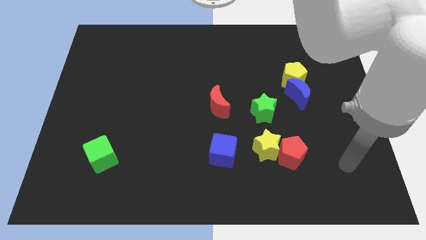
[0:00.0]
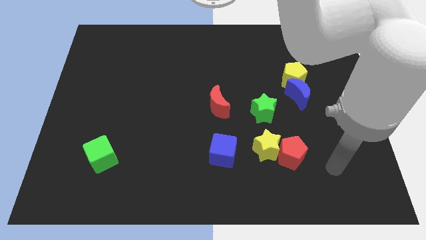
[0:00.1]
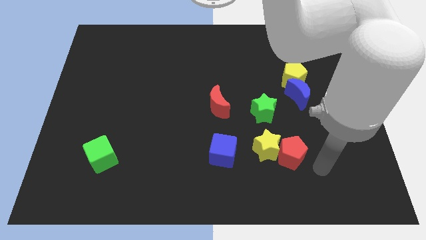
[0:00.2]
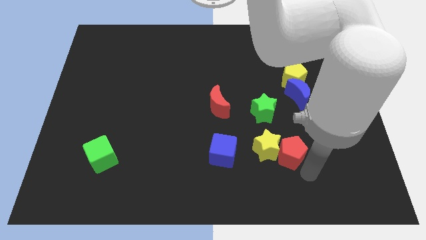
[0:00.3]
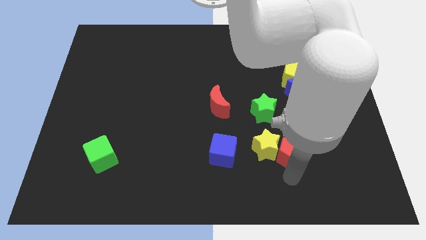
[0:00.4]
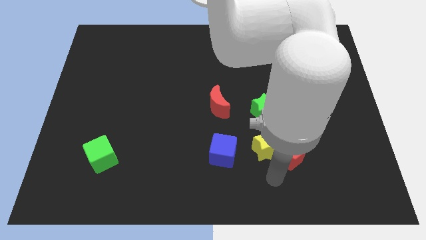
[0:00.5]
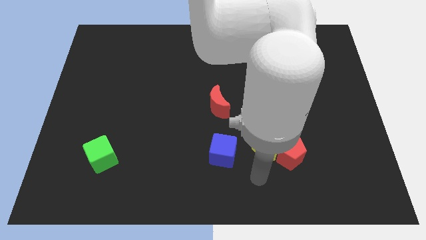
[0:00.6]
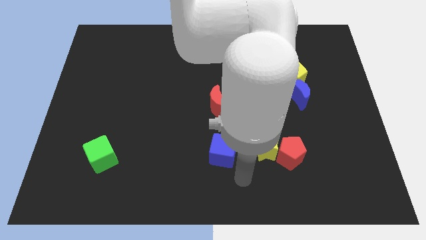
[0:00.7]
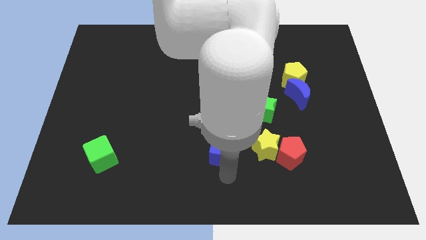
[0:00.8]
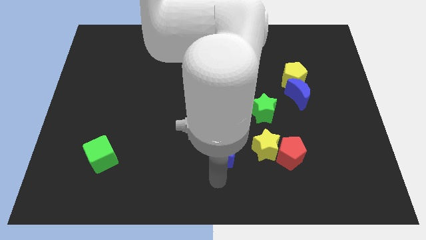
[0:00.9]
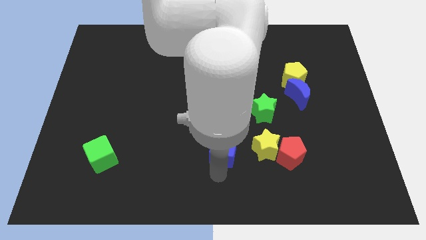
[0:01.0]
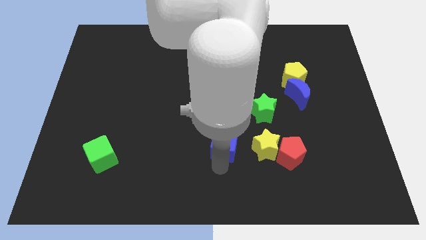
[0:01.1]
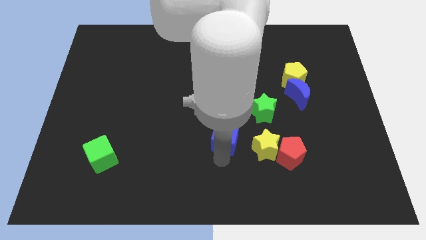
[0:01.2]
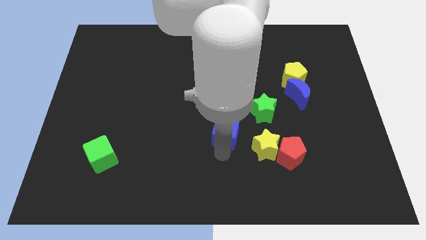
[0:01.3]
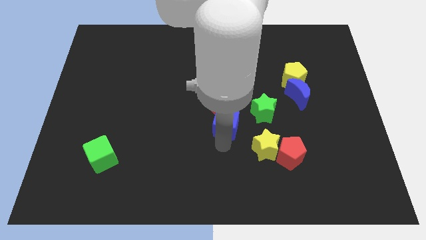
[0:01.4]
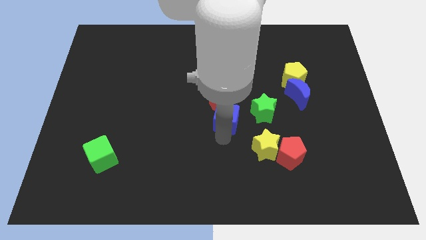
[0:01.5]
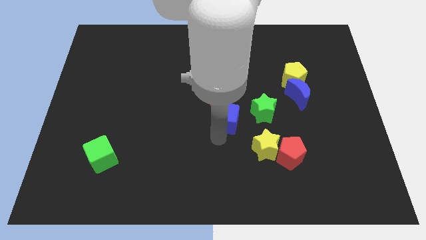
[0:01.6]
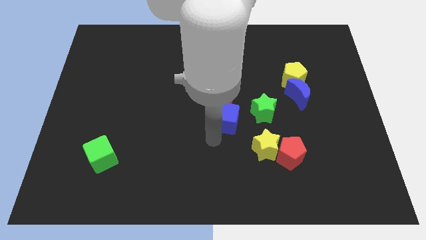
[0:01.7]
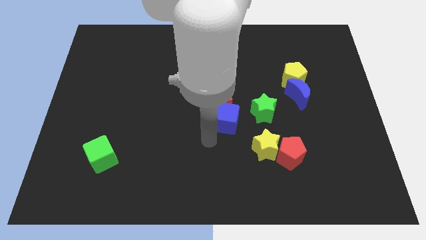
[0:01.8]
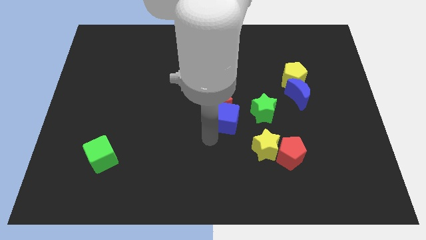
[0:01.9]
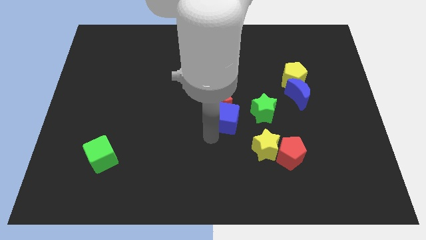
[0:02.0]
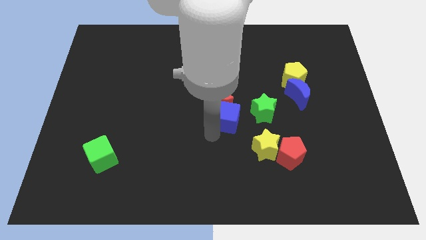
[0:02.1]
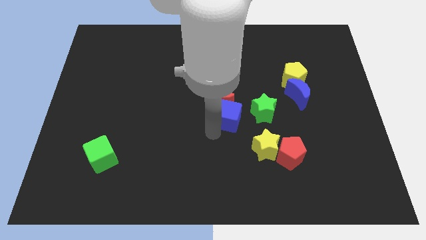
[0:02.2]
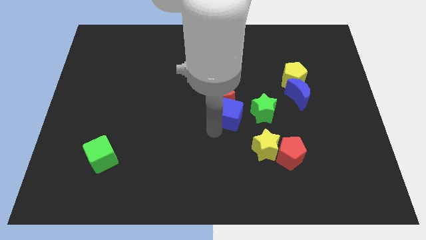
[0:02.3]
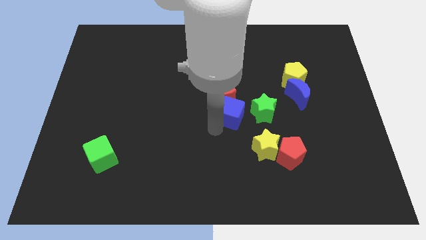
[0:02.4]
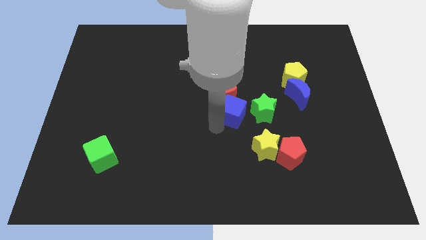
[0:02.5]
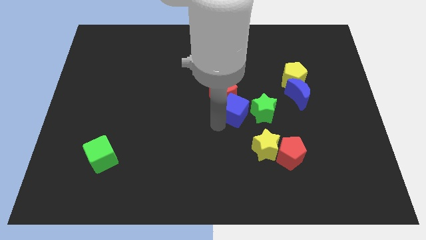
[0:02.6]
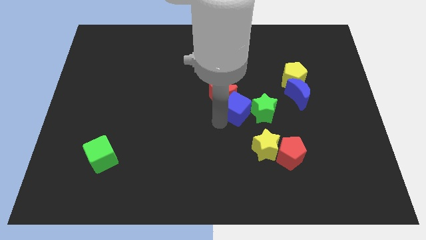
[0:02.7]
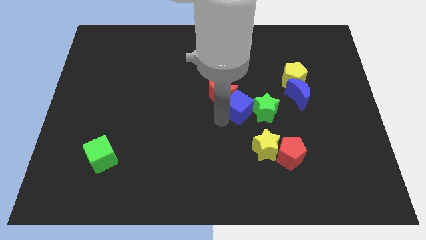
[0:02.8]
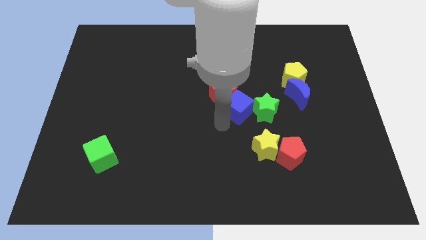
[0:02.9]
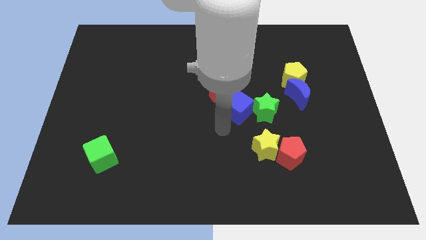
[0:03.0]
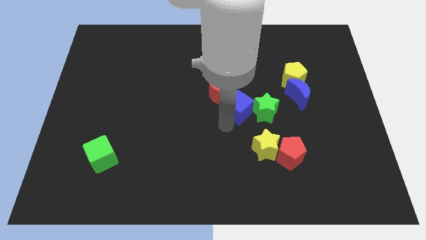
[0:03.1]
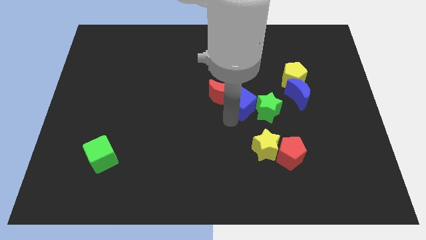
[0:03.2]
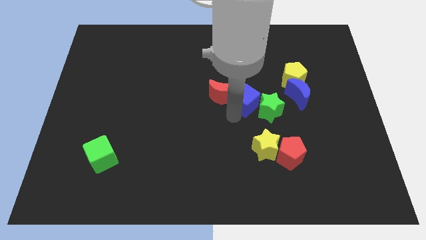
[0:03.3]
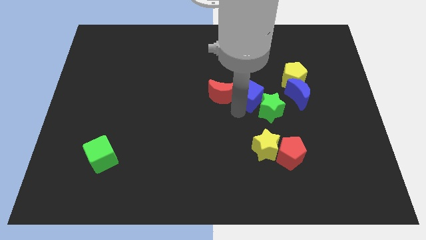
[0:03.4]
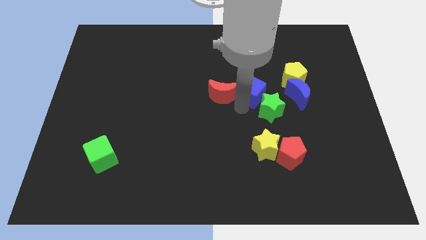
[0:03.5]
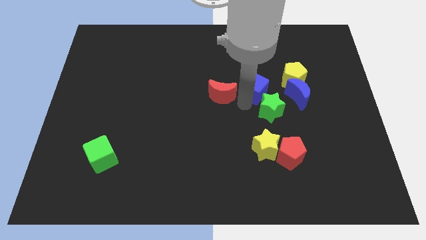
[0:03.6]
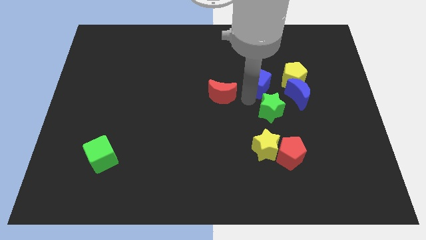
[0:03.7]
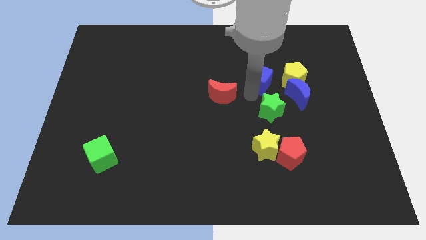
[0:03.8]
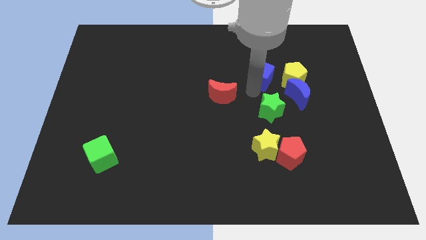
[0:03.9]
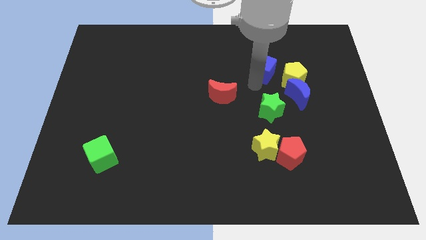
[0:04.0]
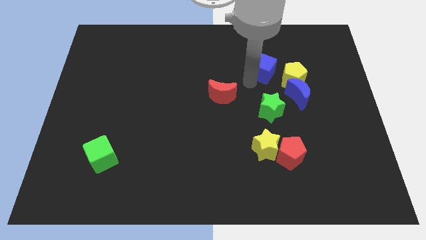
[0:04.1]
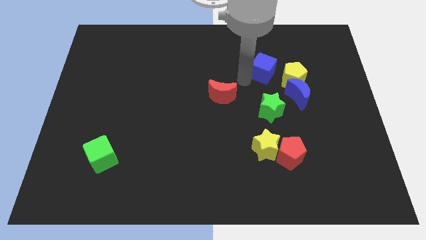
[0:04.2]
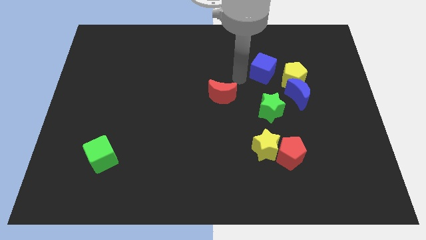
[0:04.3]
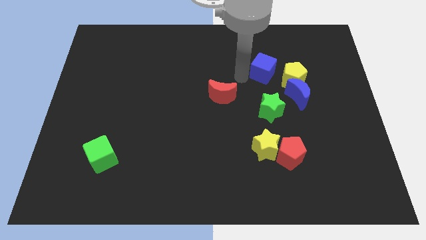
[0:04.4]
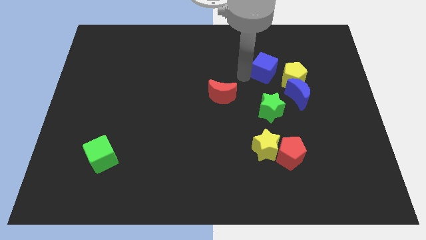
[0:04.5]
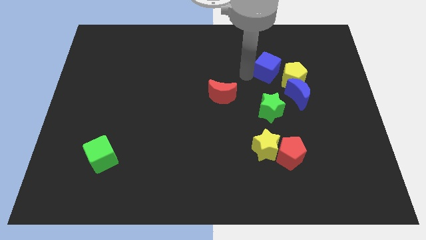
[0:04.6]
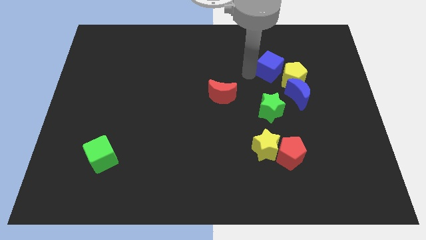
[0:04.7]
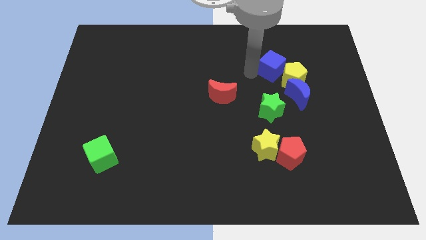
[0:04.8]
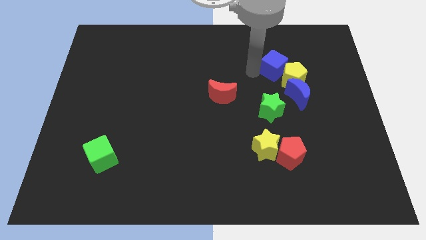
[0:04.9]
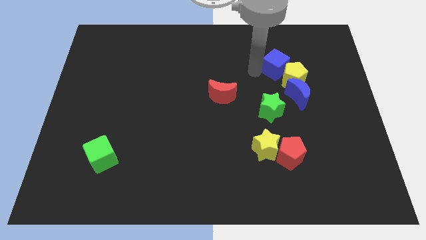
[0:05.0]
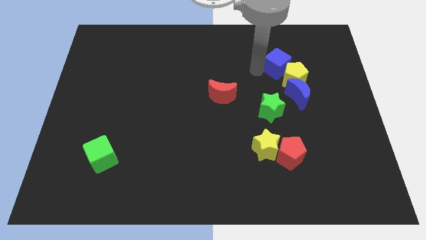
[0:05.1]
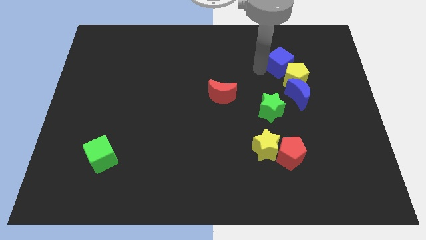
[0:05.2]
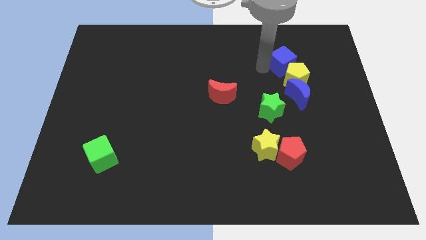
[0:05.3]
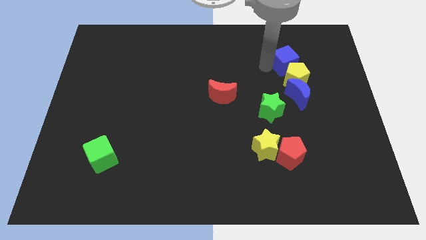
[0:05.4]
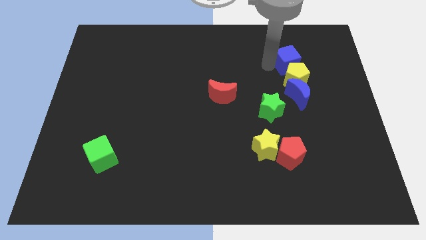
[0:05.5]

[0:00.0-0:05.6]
push the blue cube diagonally up and to the right of the yellow pentagon
